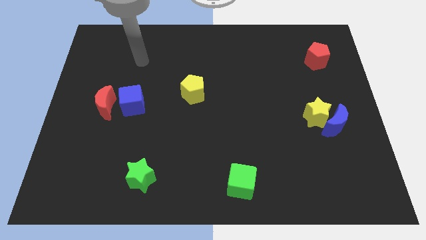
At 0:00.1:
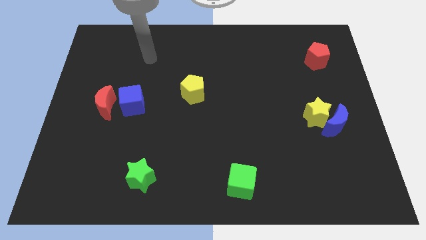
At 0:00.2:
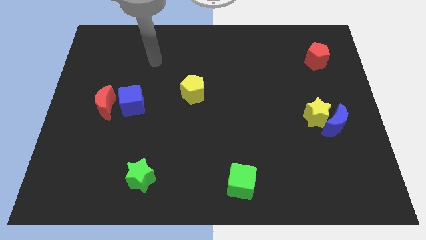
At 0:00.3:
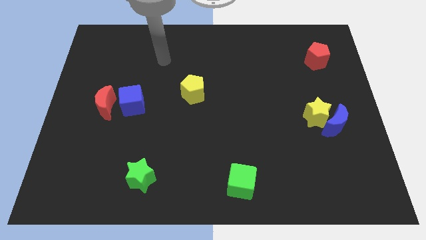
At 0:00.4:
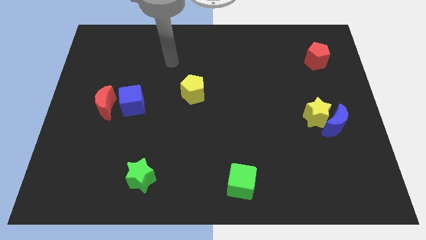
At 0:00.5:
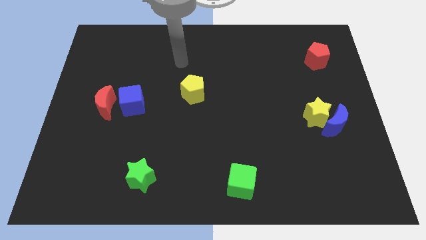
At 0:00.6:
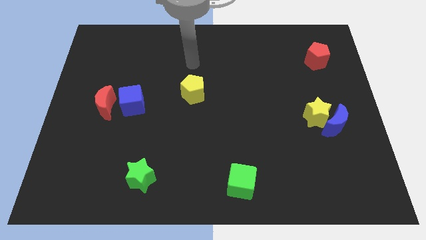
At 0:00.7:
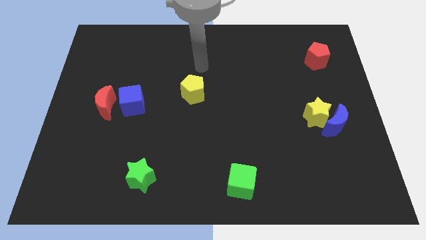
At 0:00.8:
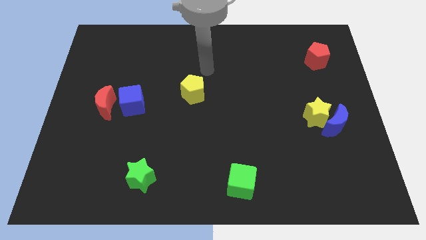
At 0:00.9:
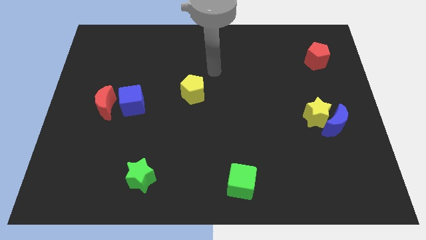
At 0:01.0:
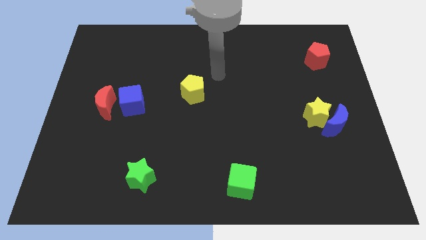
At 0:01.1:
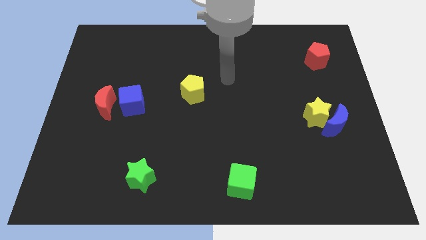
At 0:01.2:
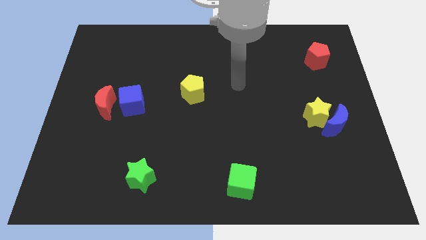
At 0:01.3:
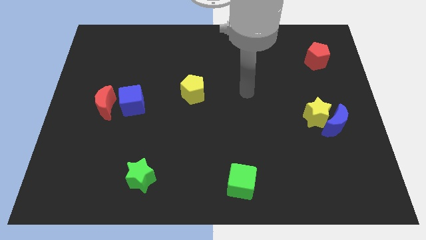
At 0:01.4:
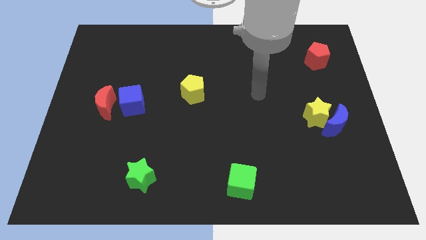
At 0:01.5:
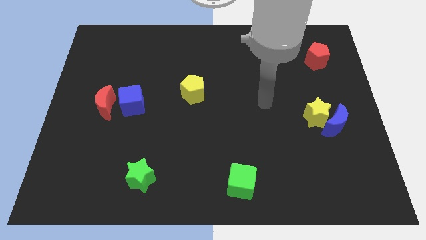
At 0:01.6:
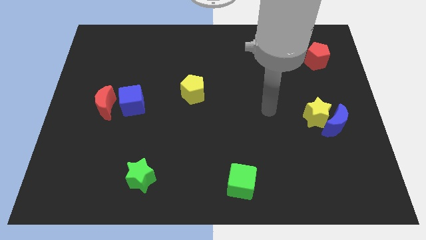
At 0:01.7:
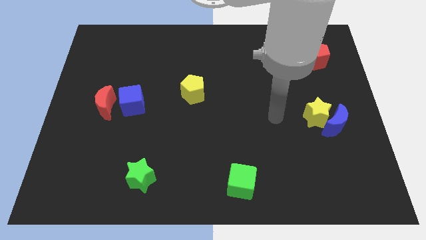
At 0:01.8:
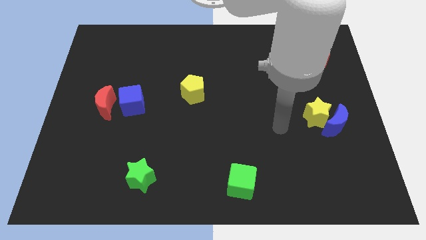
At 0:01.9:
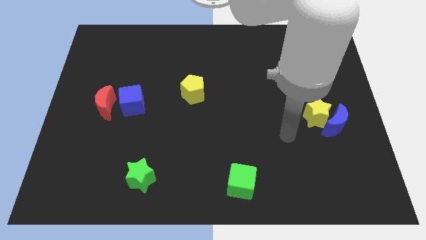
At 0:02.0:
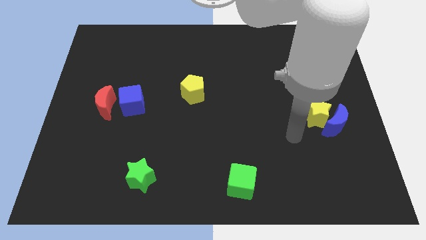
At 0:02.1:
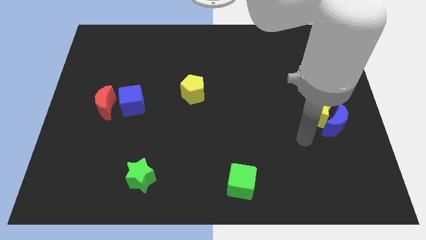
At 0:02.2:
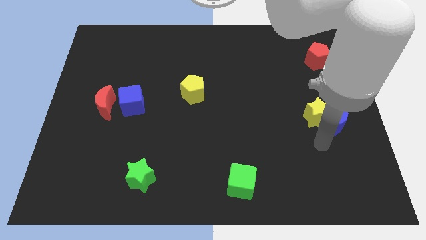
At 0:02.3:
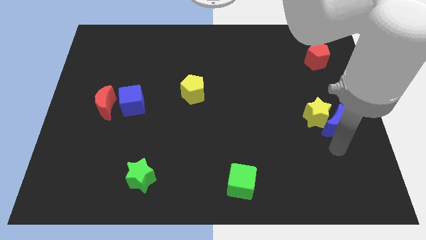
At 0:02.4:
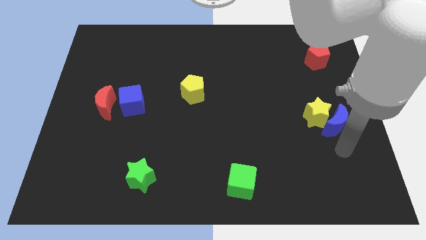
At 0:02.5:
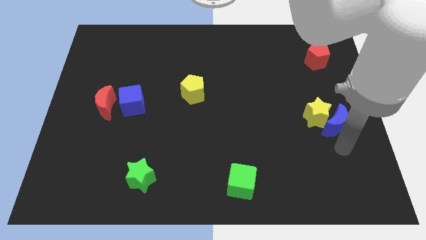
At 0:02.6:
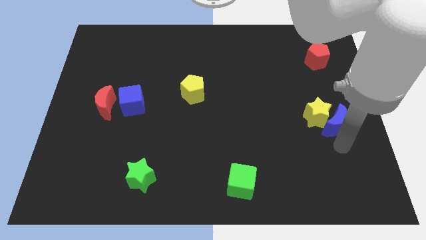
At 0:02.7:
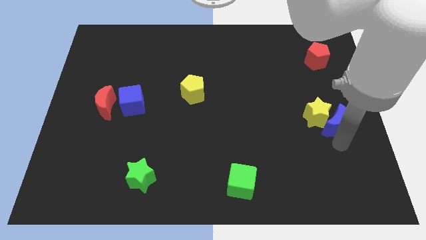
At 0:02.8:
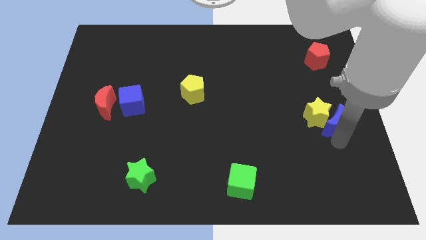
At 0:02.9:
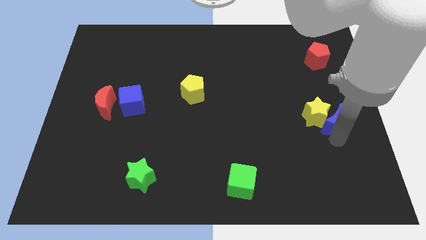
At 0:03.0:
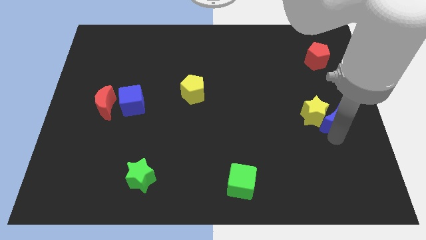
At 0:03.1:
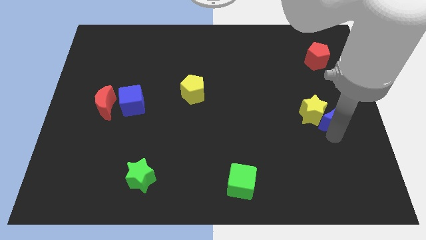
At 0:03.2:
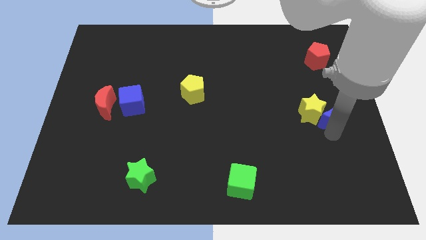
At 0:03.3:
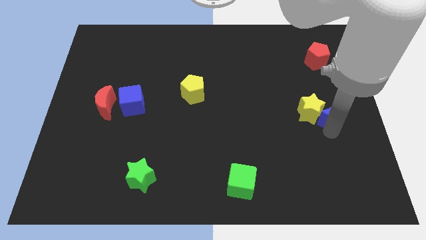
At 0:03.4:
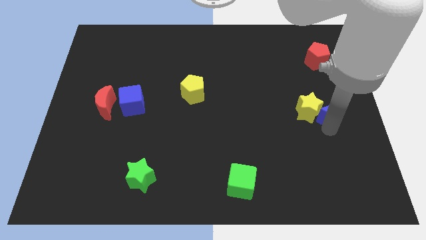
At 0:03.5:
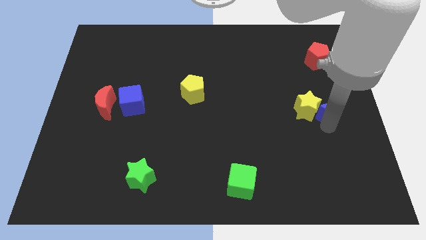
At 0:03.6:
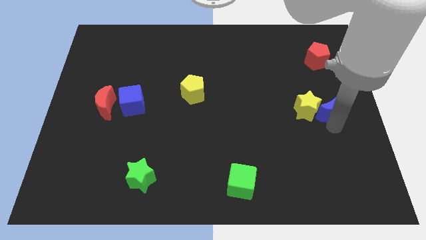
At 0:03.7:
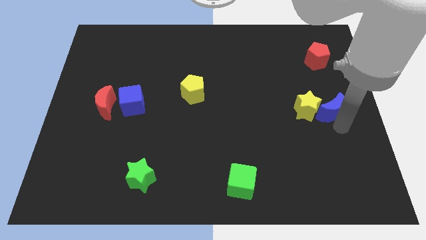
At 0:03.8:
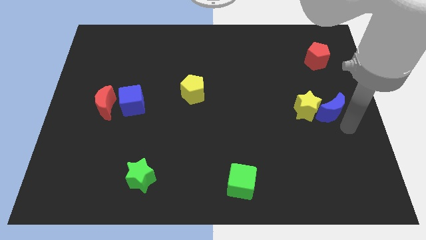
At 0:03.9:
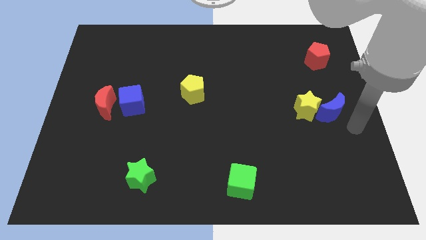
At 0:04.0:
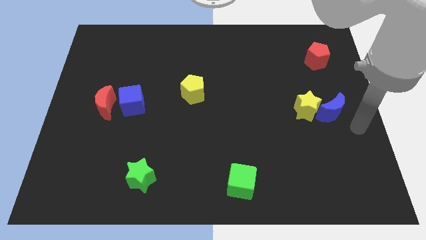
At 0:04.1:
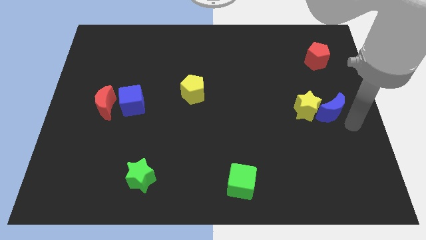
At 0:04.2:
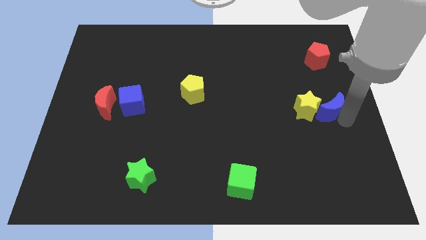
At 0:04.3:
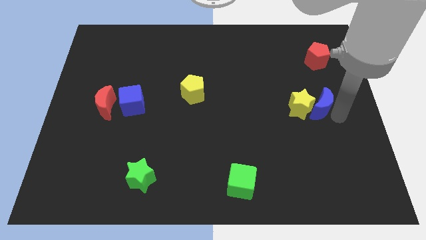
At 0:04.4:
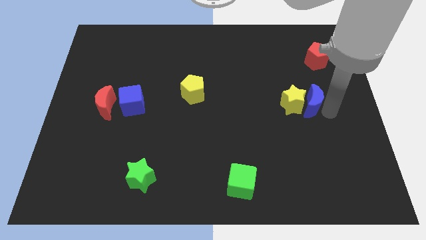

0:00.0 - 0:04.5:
push the blue moon upwards and left diagonally a little bit

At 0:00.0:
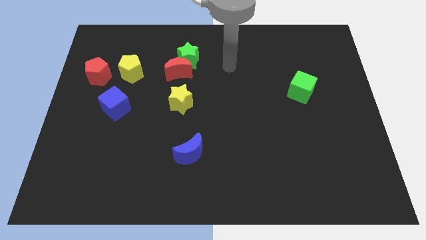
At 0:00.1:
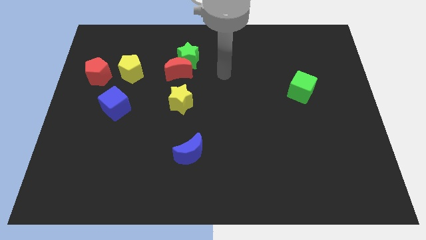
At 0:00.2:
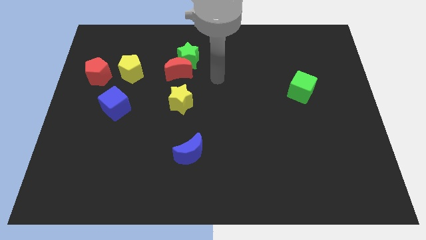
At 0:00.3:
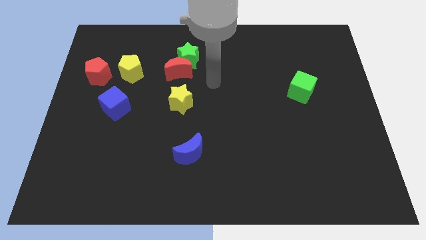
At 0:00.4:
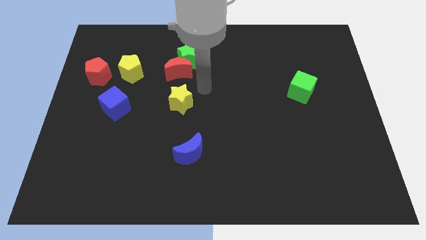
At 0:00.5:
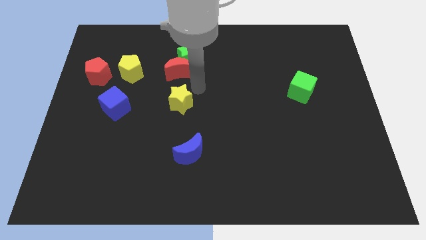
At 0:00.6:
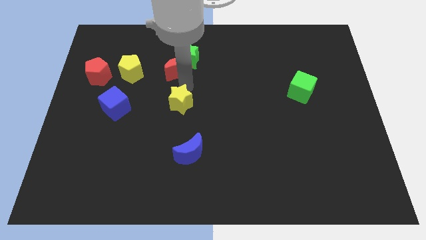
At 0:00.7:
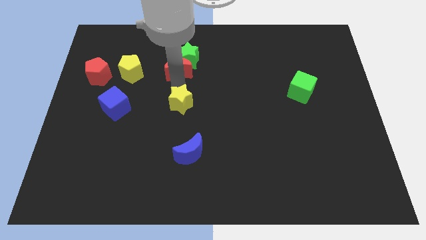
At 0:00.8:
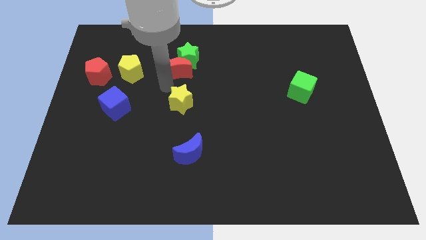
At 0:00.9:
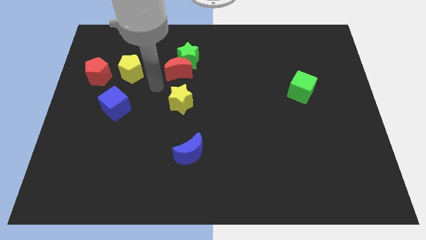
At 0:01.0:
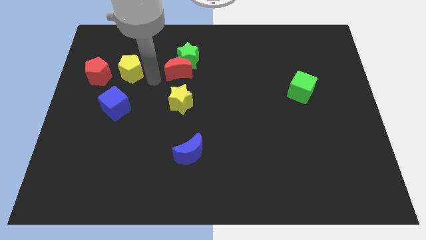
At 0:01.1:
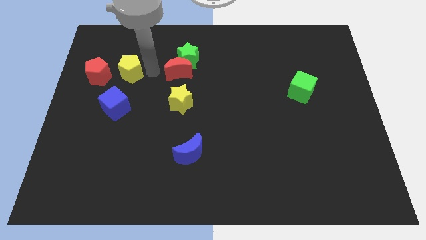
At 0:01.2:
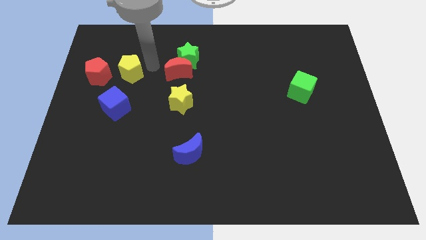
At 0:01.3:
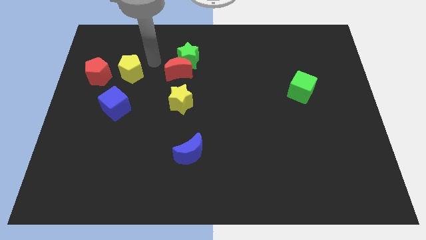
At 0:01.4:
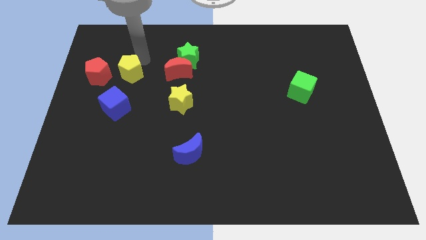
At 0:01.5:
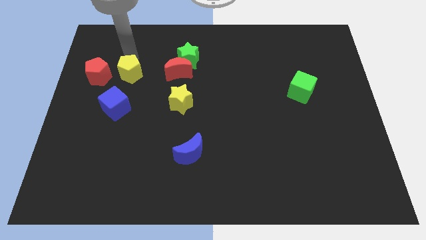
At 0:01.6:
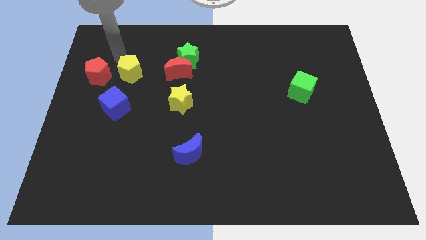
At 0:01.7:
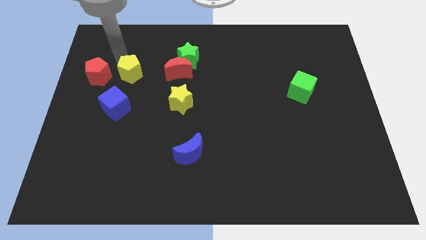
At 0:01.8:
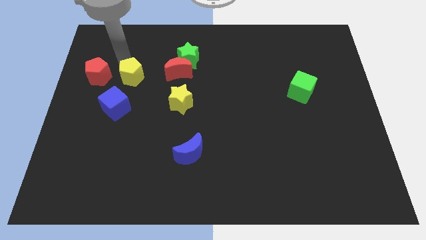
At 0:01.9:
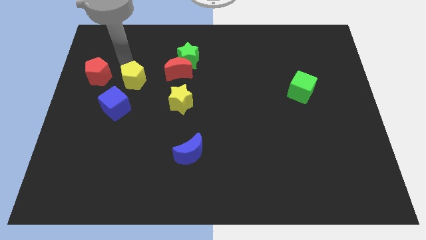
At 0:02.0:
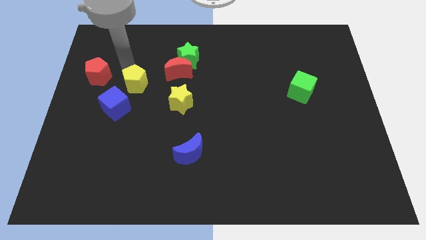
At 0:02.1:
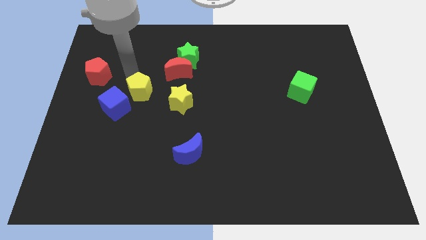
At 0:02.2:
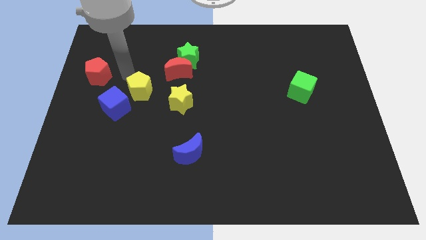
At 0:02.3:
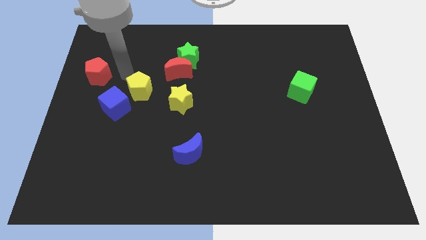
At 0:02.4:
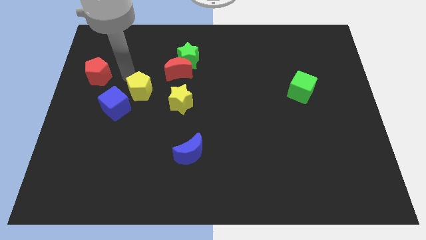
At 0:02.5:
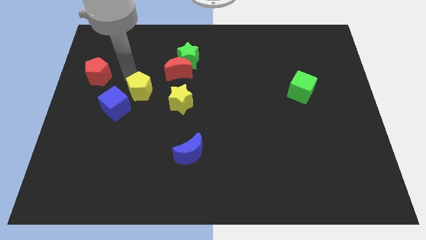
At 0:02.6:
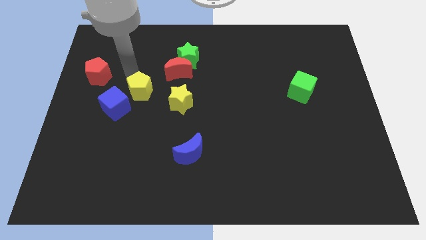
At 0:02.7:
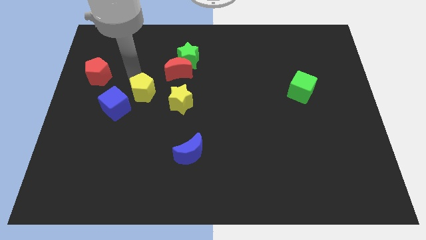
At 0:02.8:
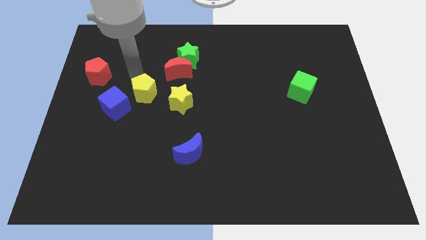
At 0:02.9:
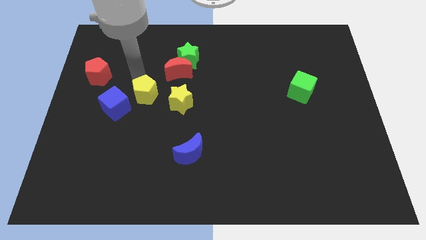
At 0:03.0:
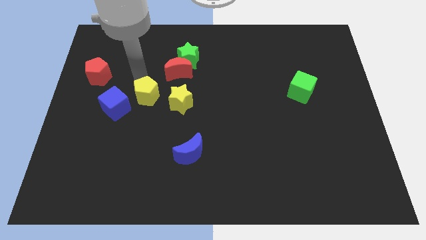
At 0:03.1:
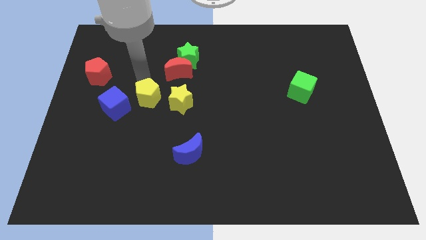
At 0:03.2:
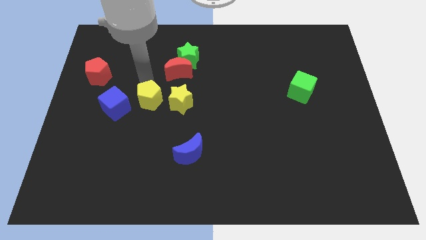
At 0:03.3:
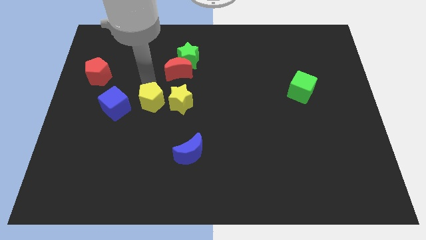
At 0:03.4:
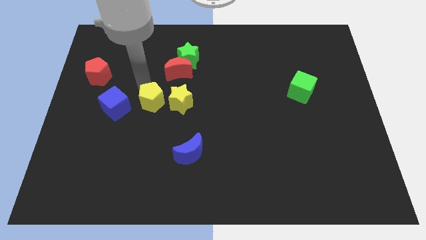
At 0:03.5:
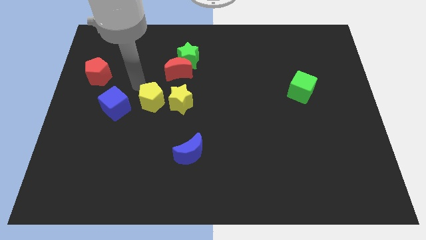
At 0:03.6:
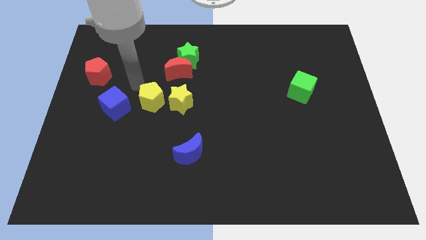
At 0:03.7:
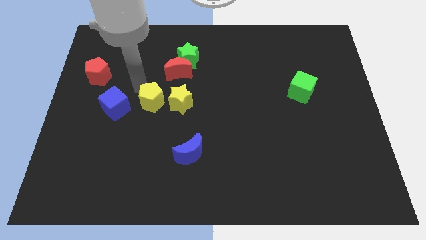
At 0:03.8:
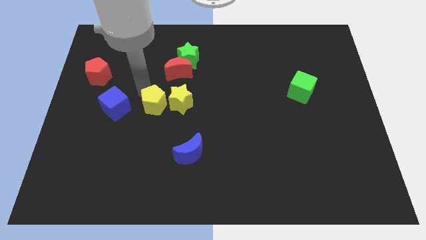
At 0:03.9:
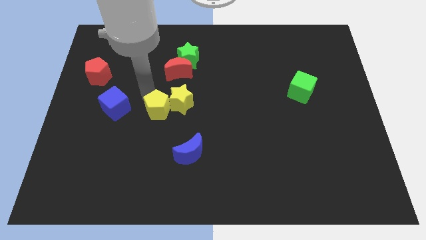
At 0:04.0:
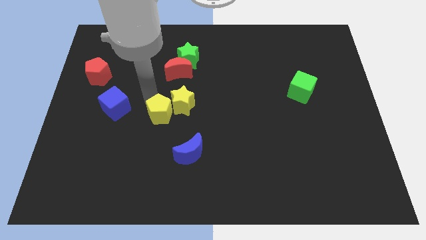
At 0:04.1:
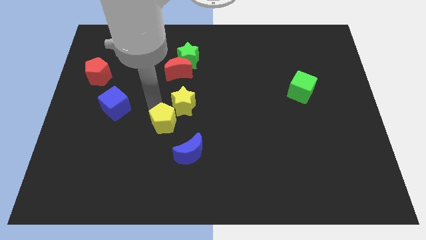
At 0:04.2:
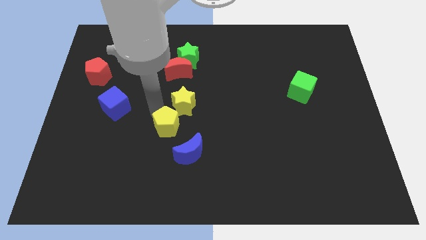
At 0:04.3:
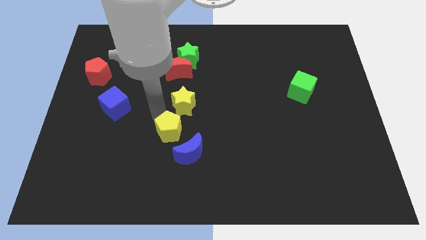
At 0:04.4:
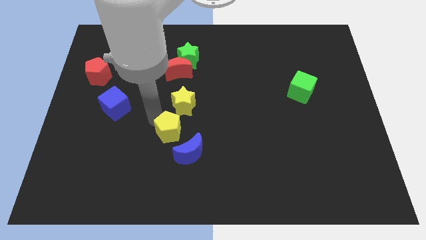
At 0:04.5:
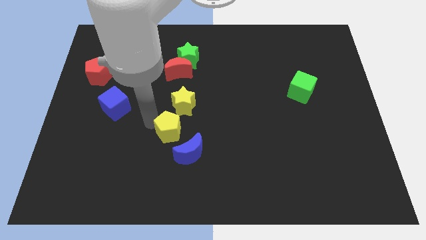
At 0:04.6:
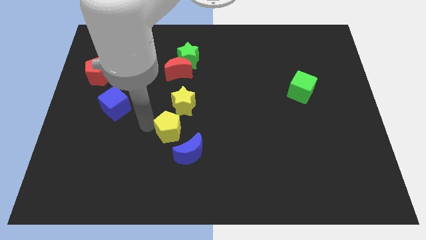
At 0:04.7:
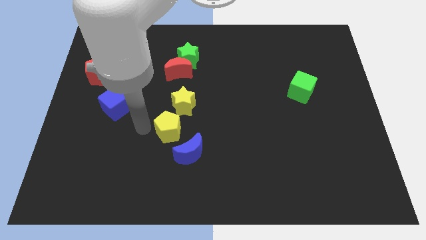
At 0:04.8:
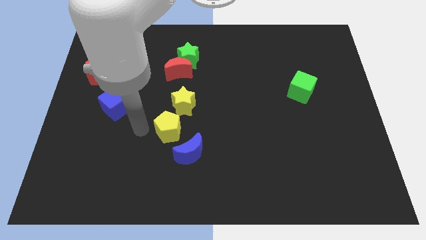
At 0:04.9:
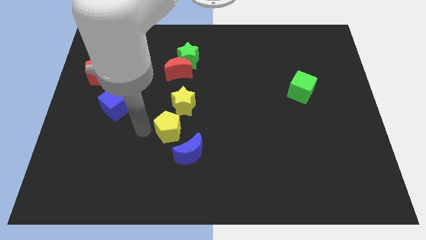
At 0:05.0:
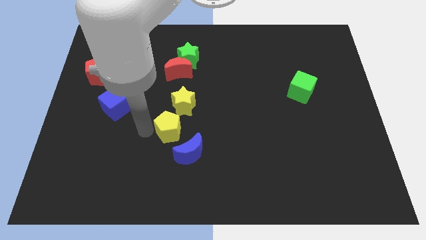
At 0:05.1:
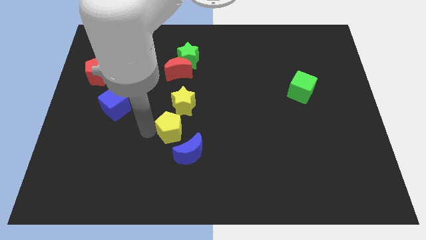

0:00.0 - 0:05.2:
push the yellow pentagon diagonally downwards and right
